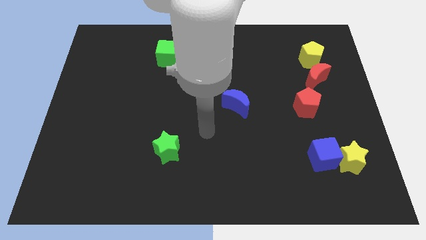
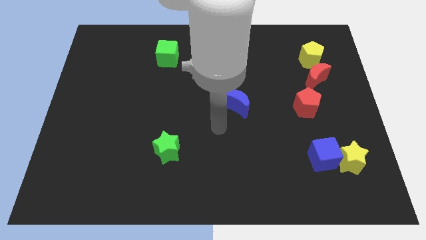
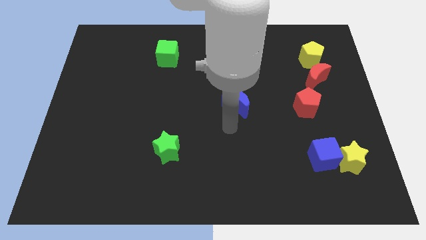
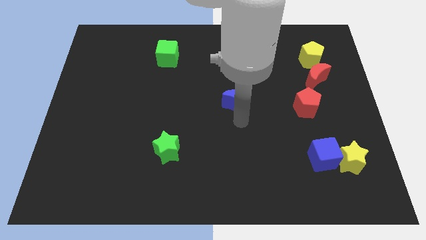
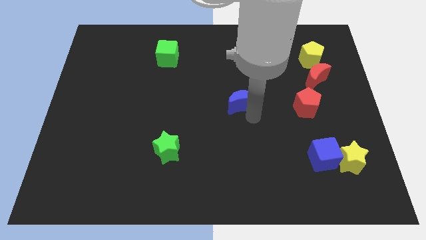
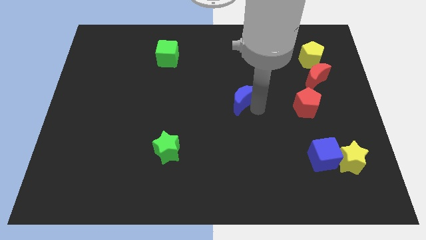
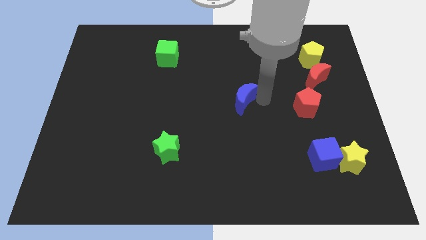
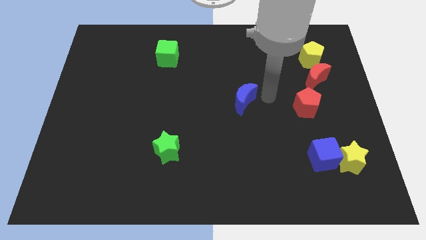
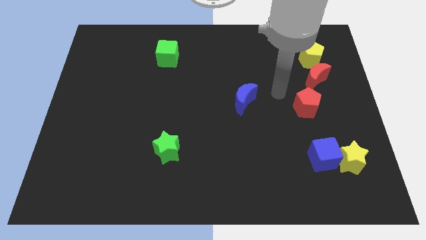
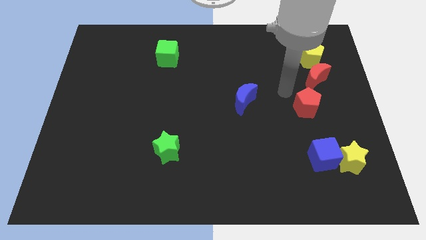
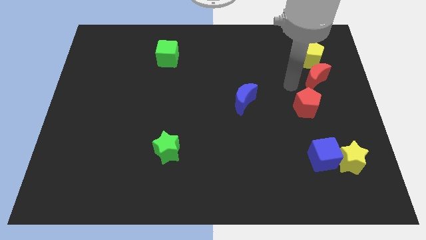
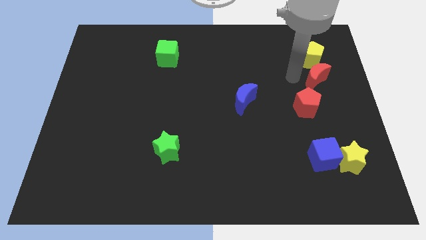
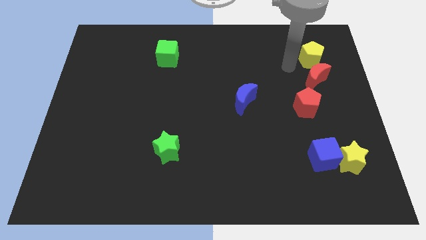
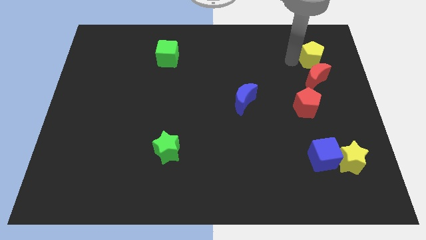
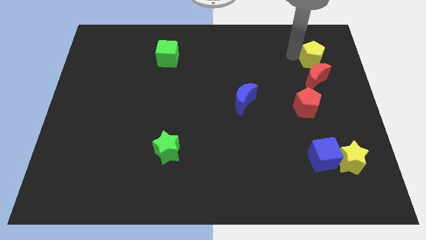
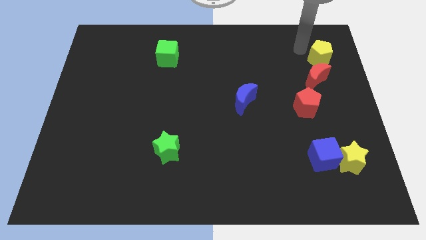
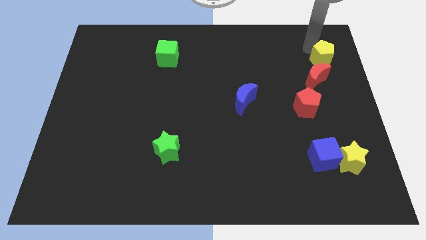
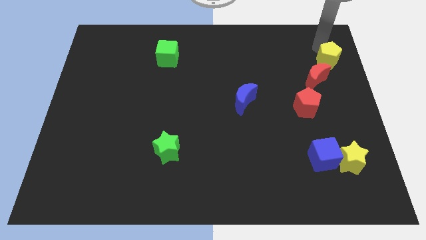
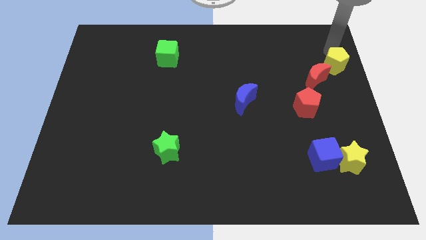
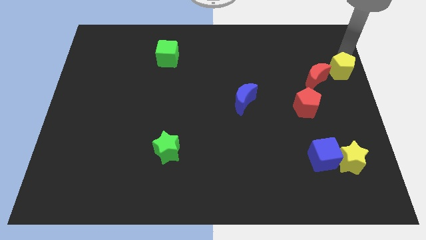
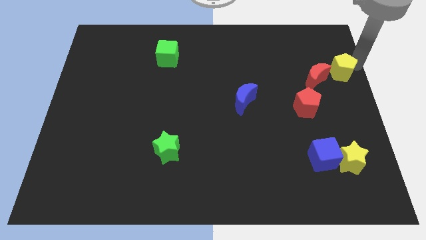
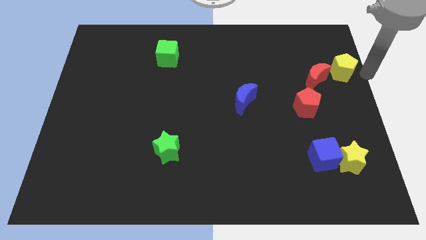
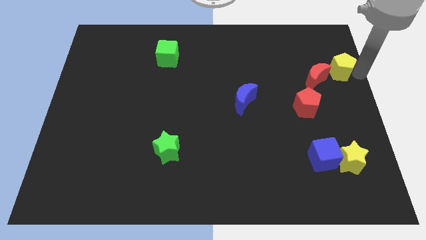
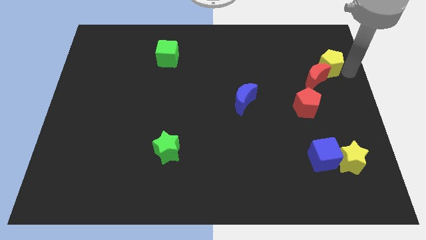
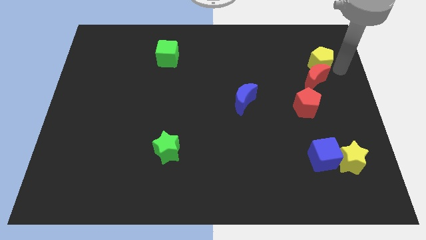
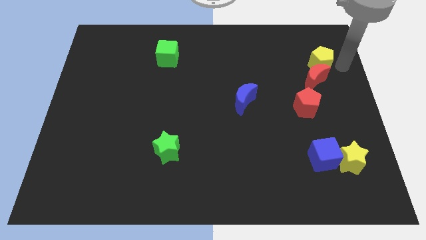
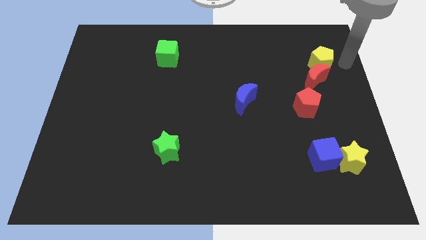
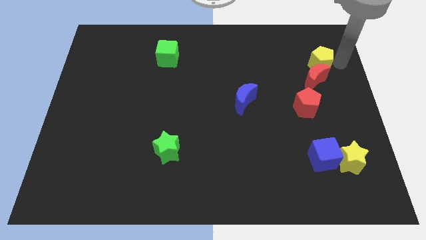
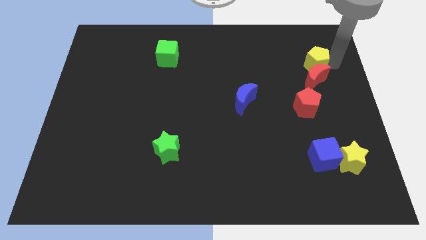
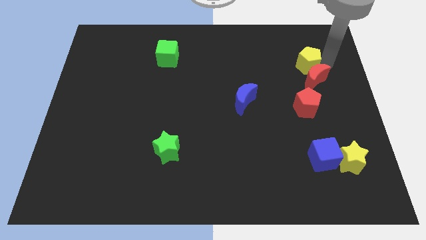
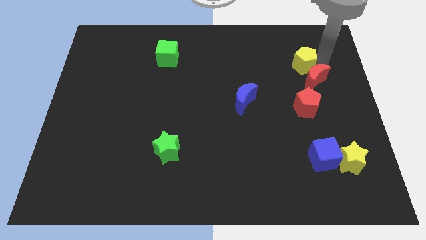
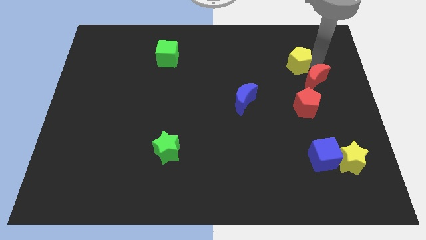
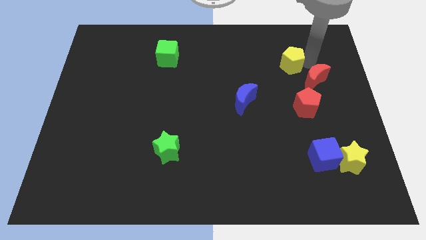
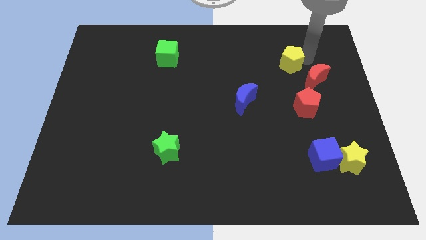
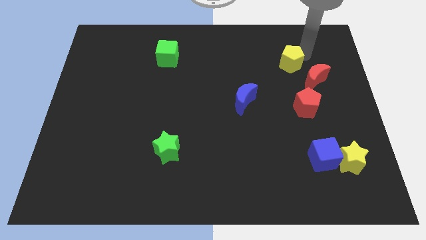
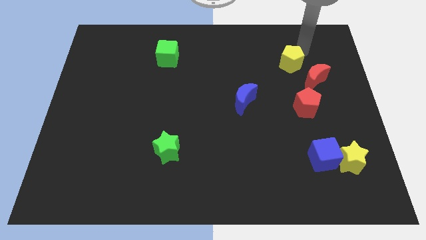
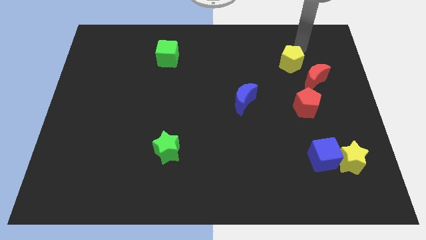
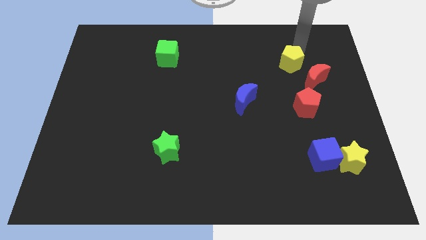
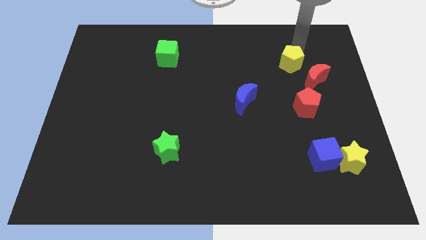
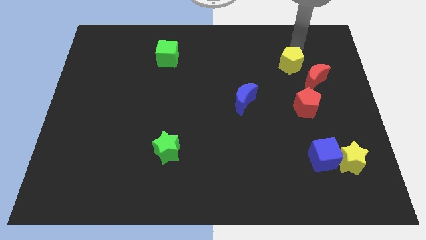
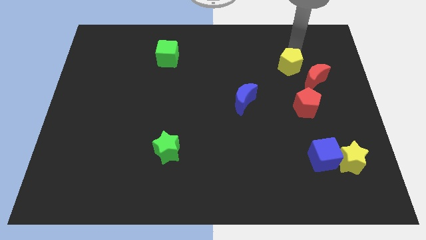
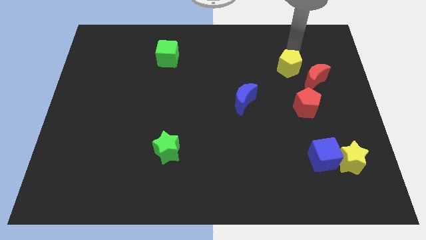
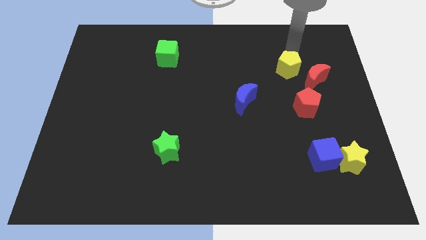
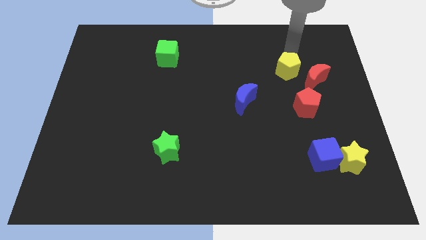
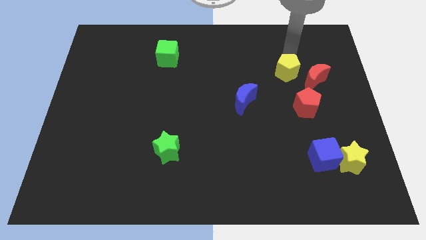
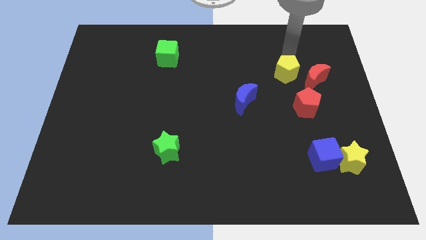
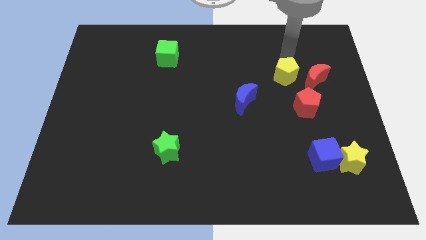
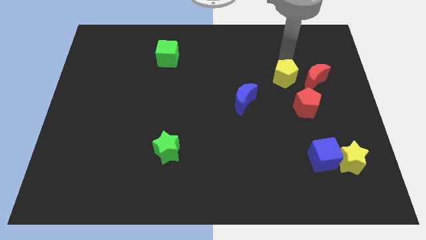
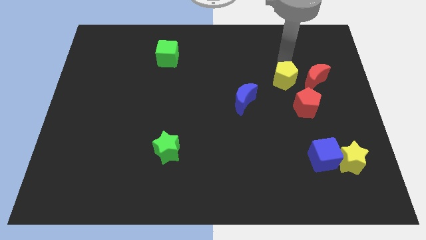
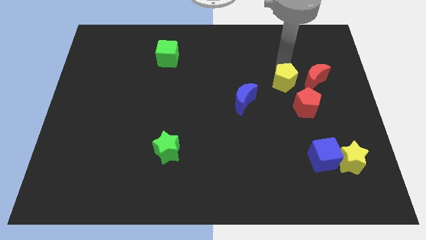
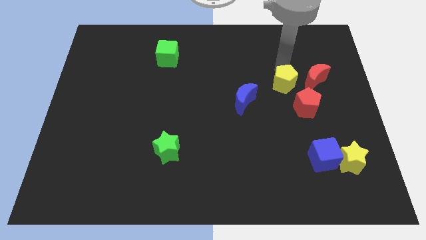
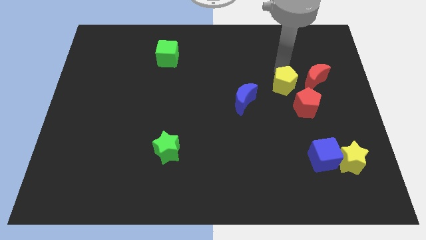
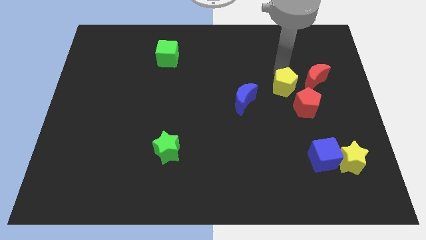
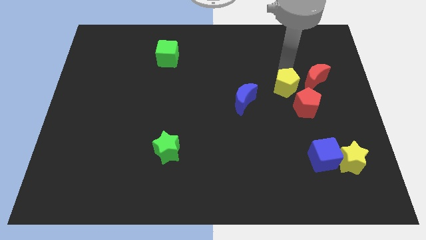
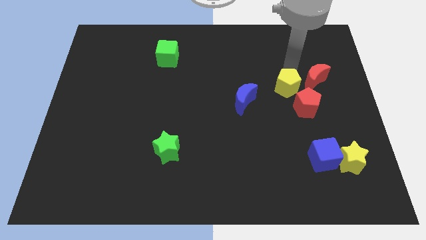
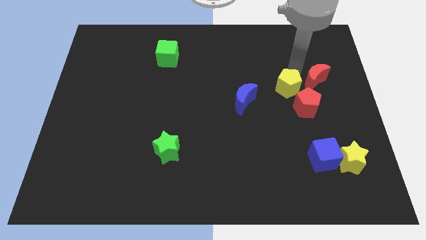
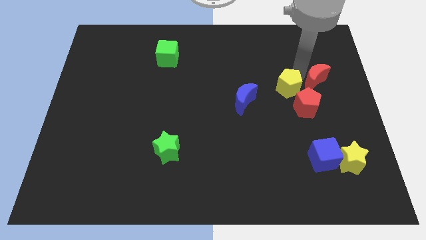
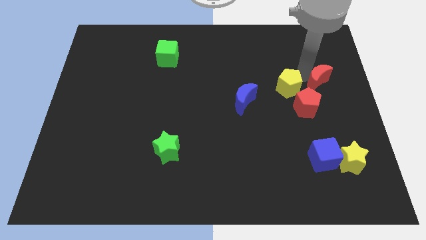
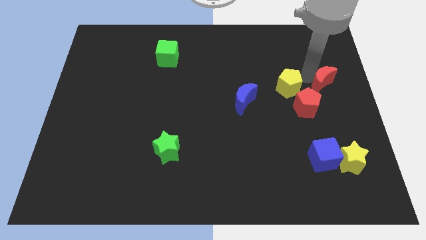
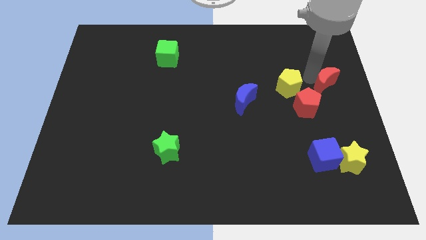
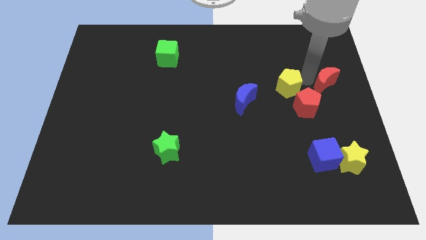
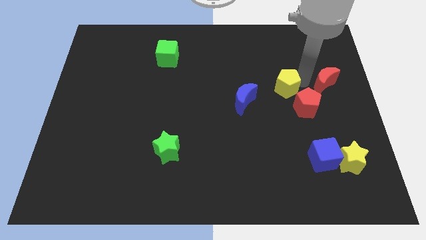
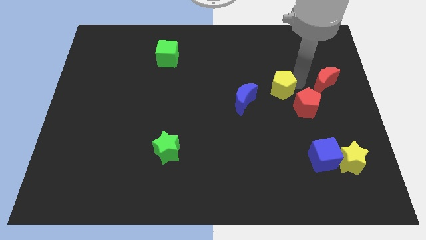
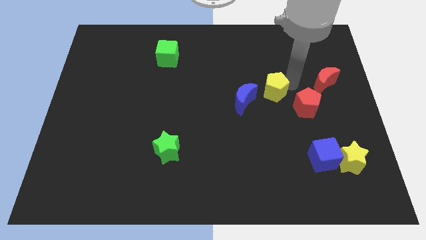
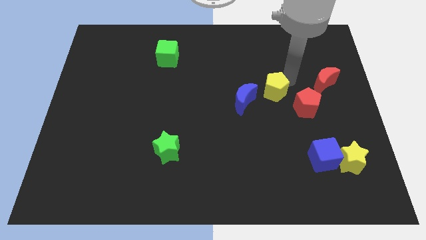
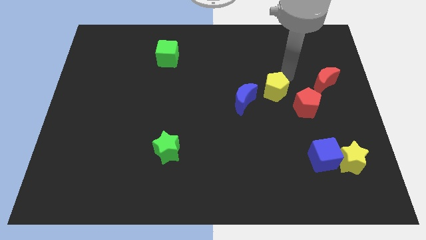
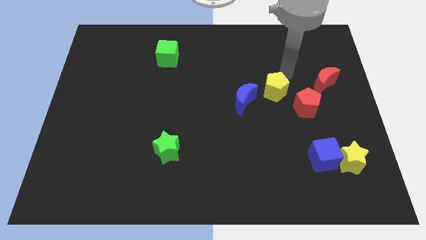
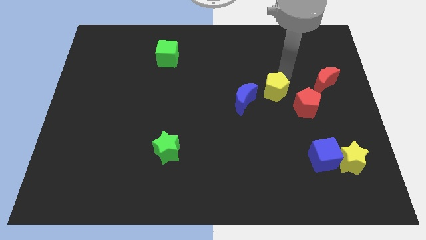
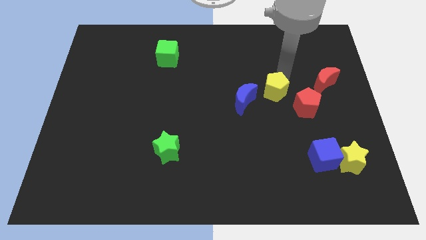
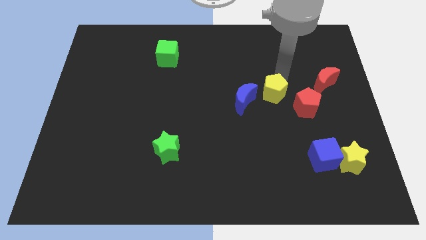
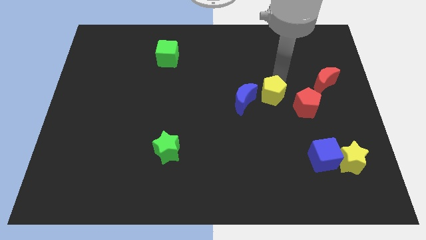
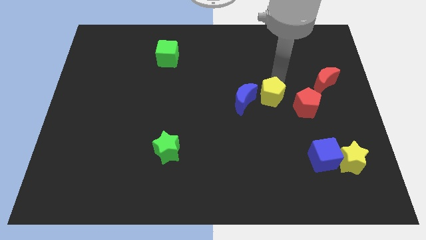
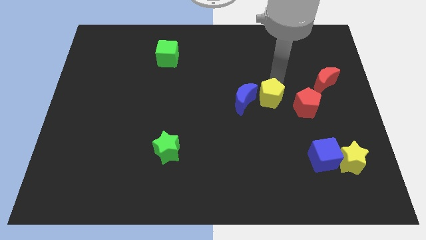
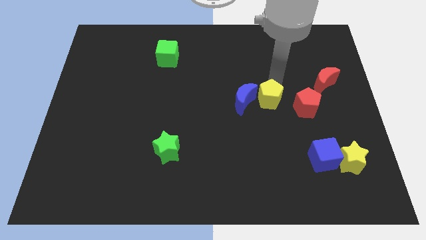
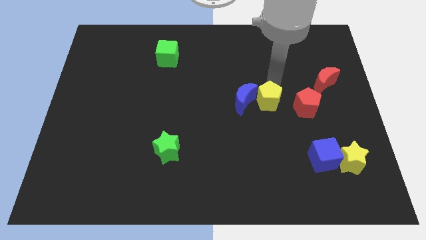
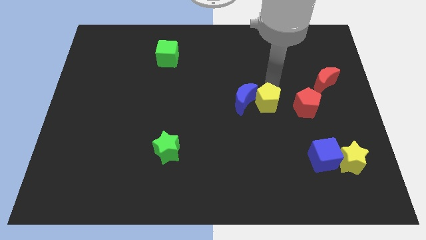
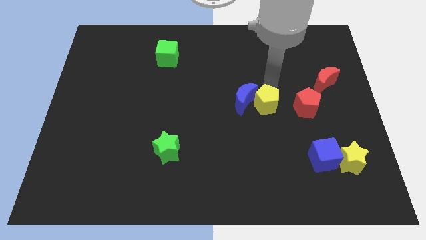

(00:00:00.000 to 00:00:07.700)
push the yellow pentagon down and then left

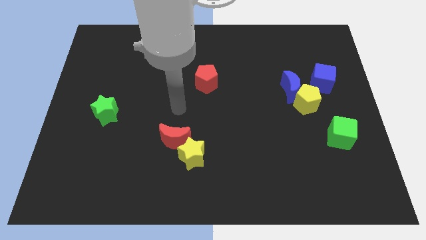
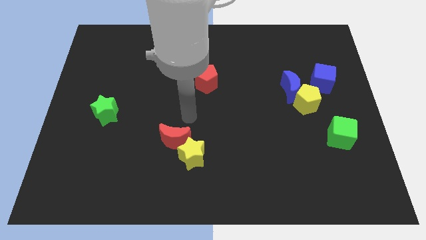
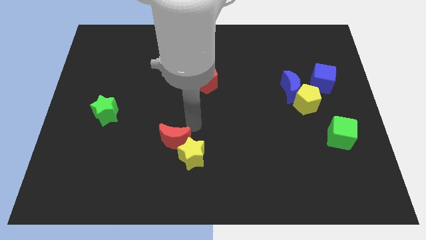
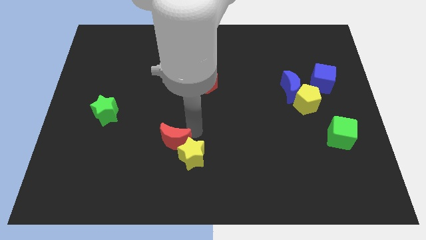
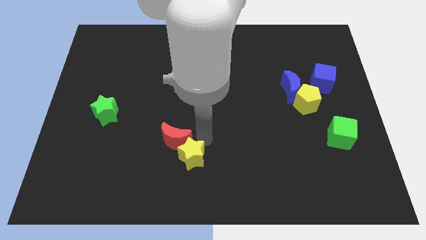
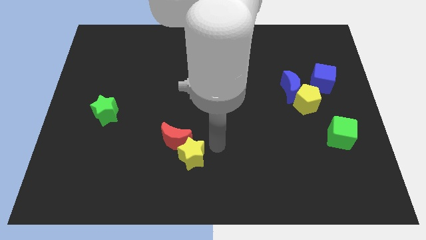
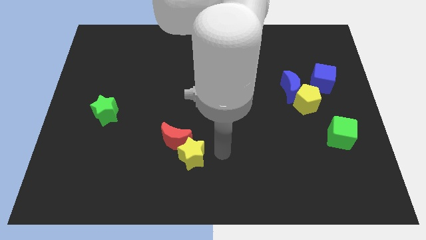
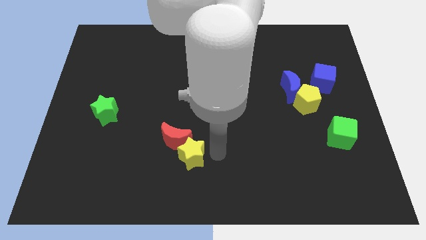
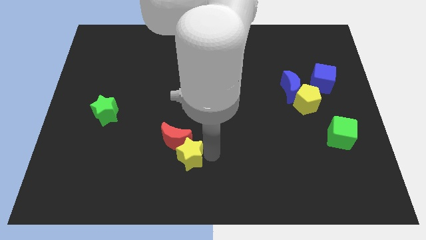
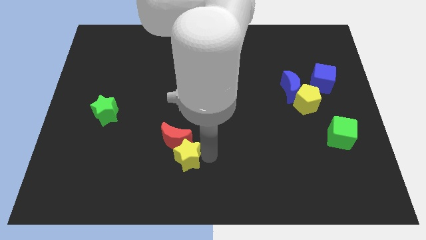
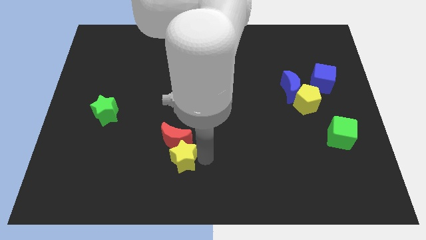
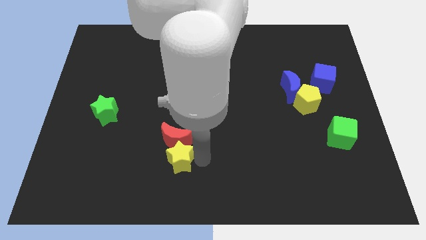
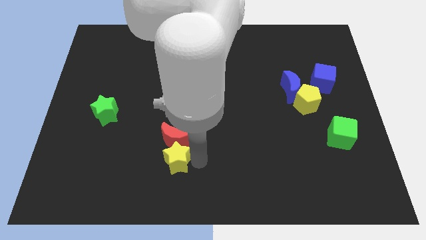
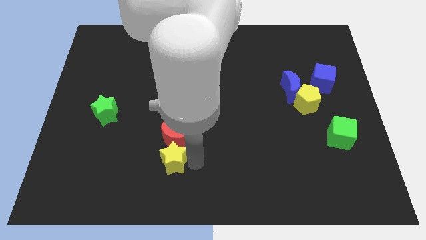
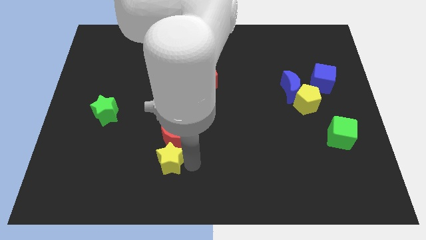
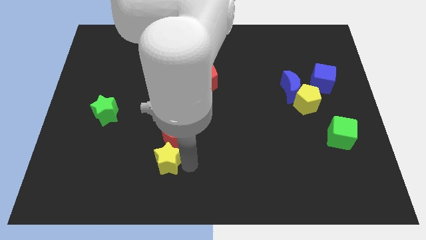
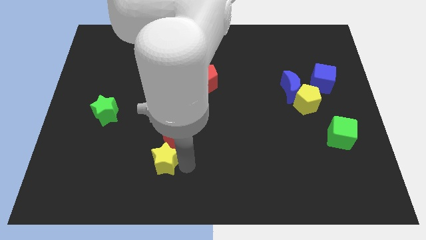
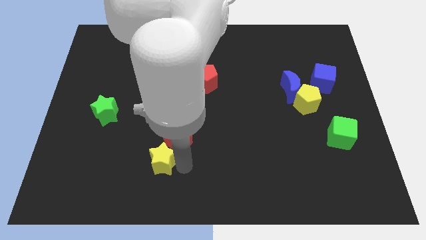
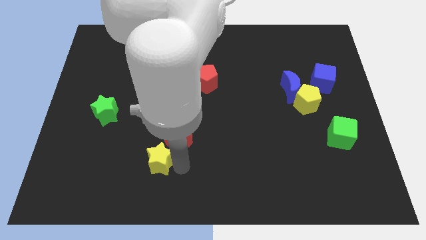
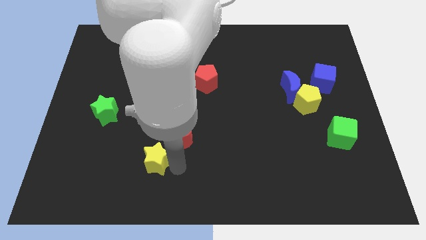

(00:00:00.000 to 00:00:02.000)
slide the yellow star a bit to the left
